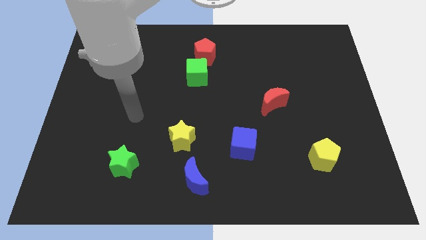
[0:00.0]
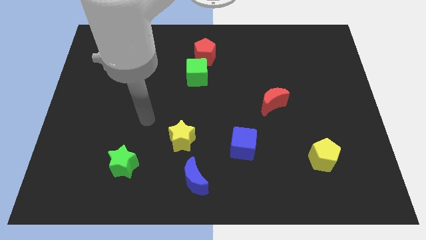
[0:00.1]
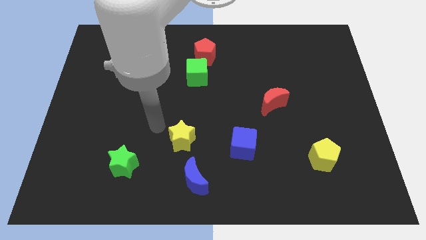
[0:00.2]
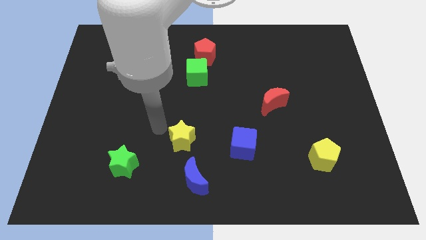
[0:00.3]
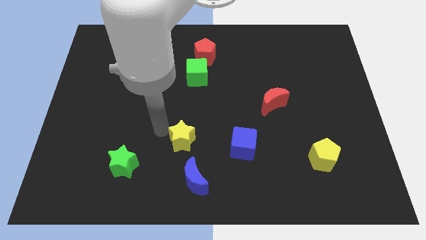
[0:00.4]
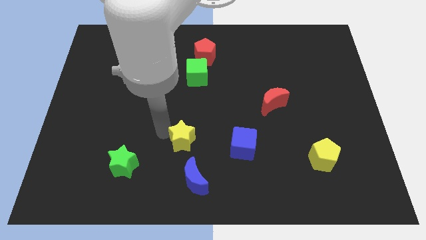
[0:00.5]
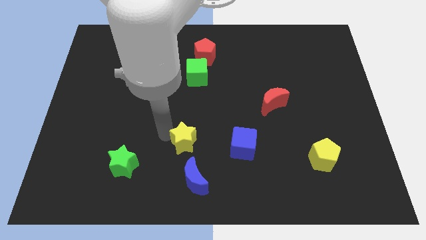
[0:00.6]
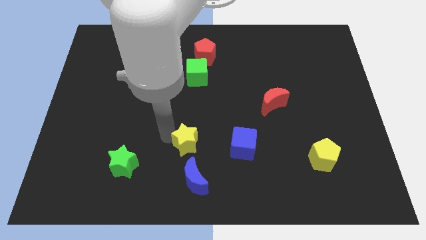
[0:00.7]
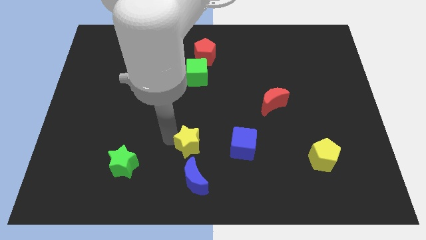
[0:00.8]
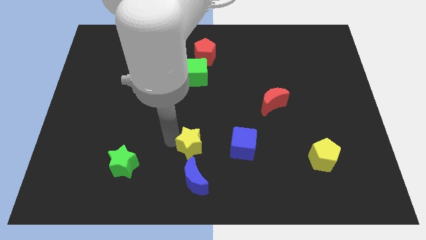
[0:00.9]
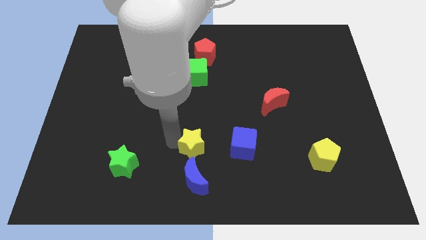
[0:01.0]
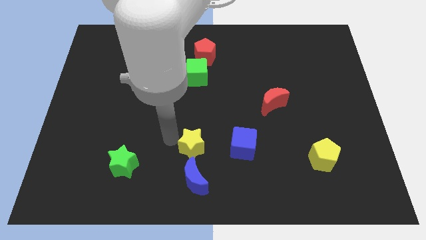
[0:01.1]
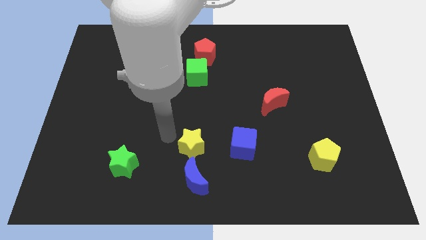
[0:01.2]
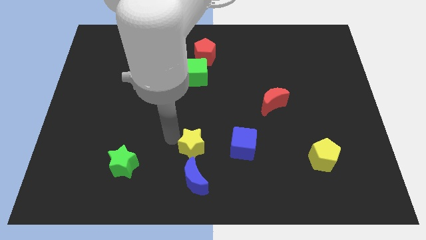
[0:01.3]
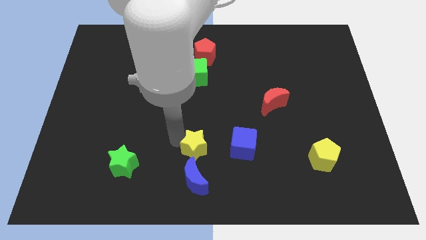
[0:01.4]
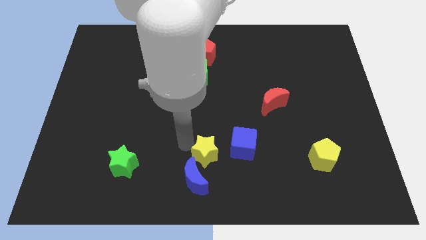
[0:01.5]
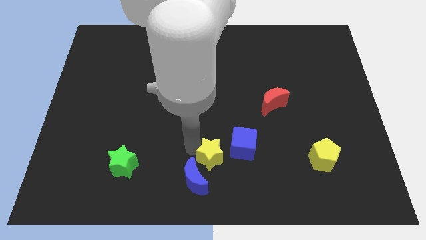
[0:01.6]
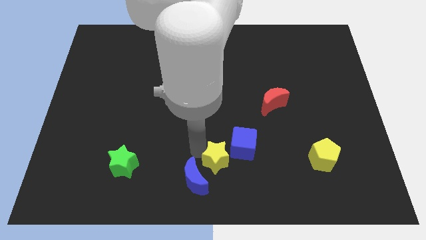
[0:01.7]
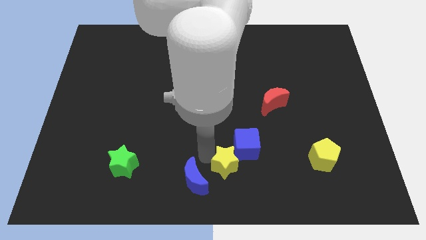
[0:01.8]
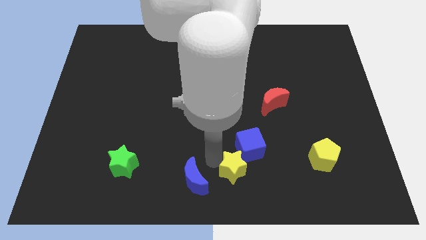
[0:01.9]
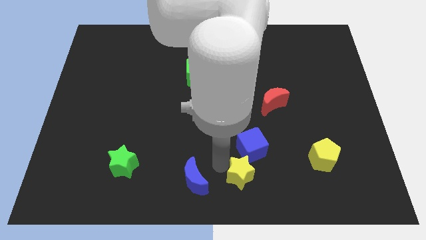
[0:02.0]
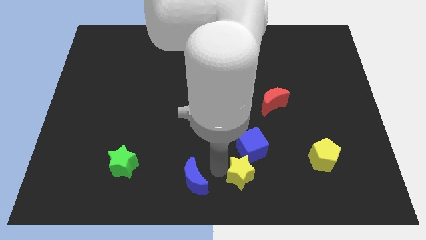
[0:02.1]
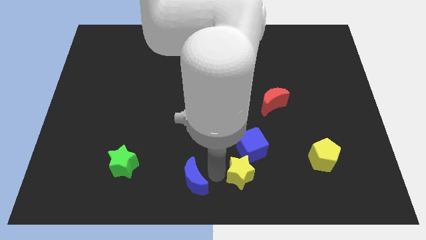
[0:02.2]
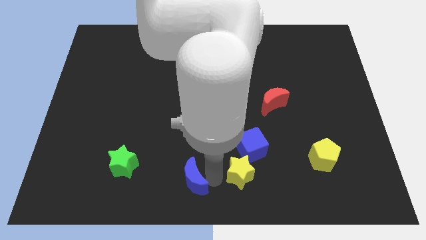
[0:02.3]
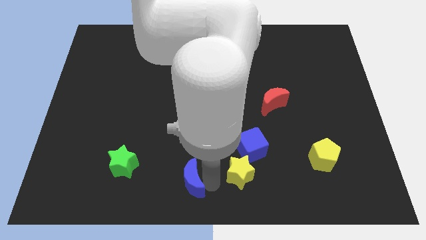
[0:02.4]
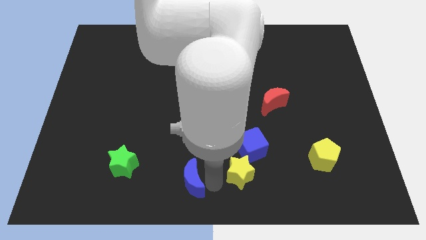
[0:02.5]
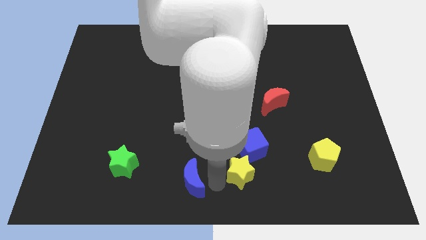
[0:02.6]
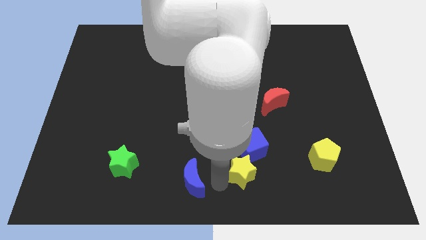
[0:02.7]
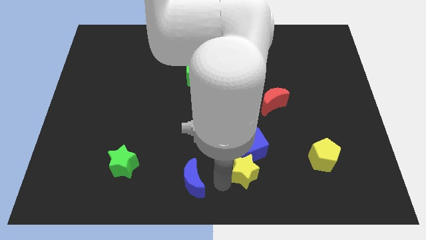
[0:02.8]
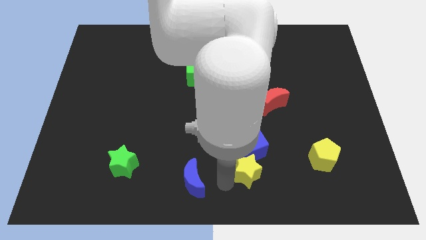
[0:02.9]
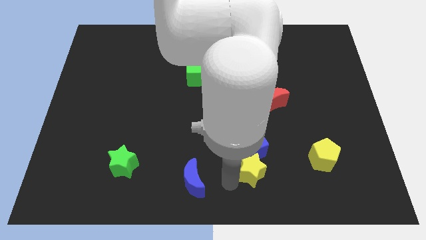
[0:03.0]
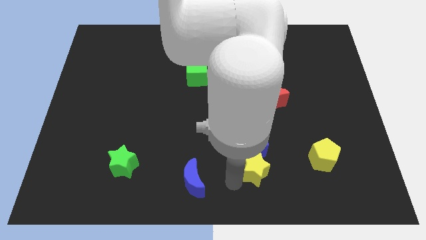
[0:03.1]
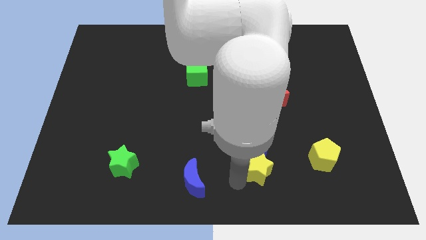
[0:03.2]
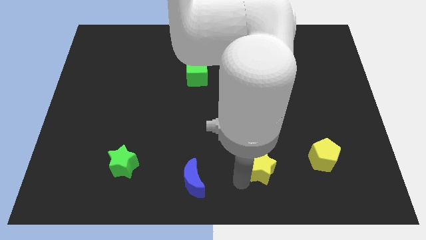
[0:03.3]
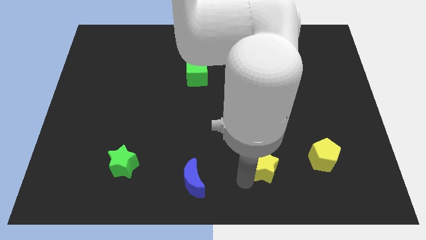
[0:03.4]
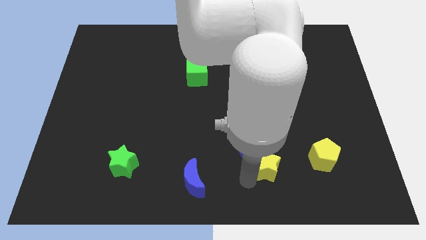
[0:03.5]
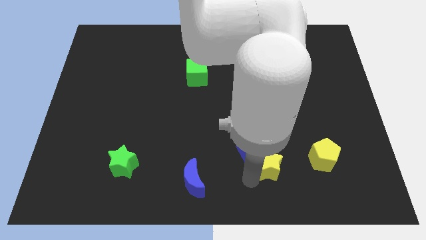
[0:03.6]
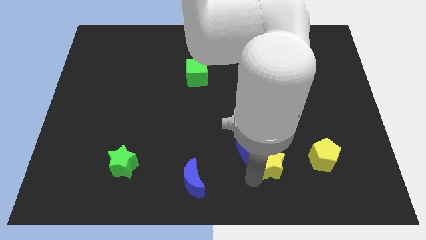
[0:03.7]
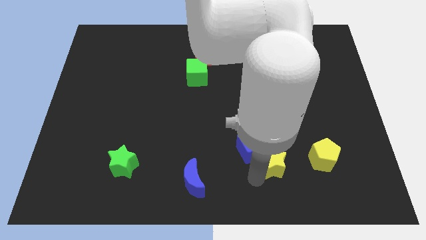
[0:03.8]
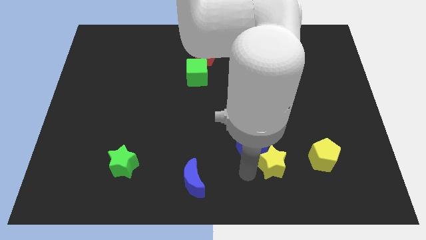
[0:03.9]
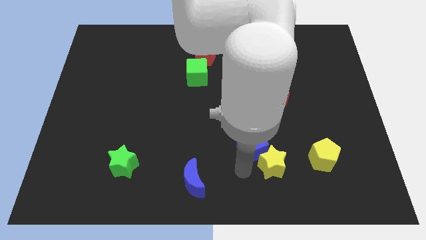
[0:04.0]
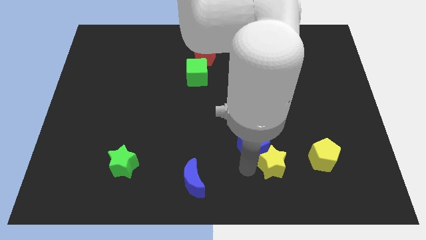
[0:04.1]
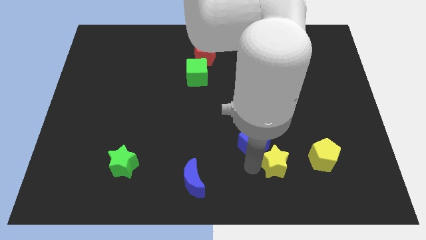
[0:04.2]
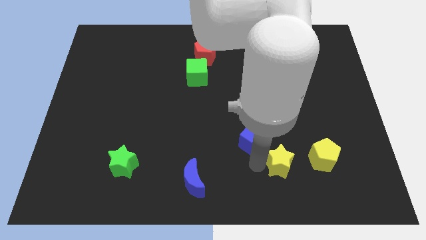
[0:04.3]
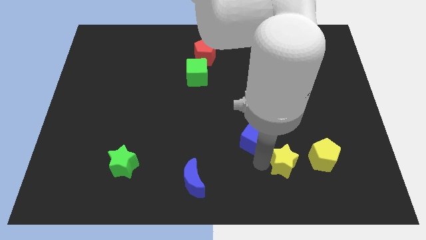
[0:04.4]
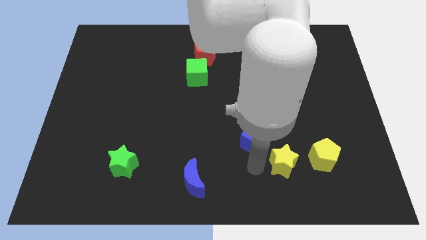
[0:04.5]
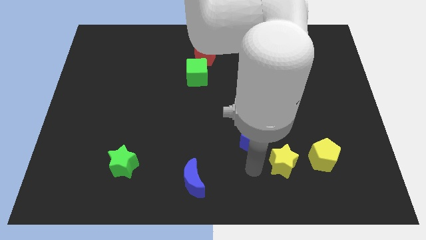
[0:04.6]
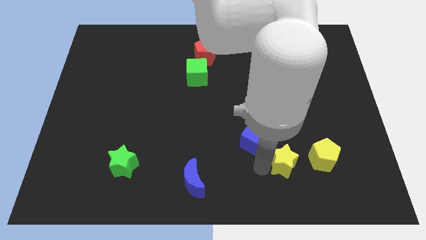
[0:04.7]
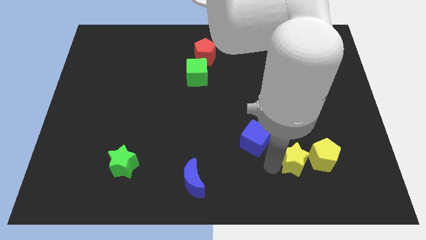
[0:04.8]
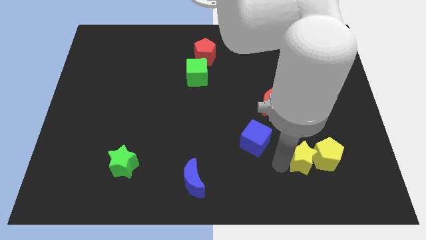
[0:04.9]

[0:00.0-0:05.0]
push the yellow star next to the yellow pentagon

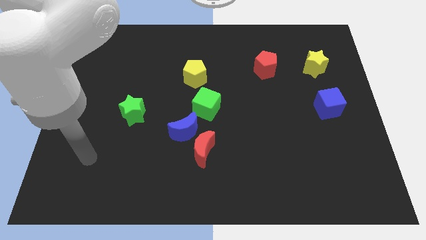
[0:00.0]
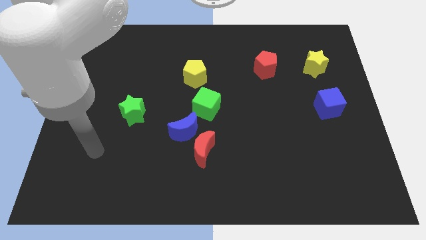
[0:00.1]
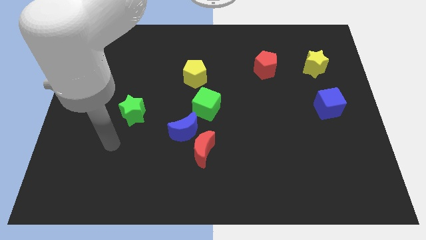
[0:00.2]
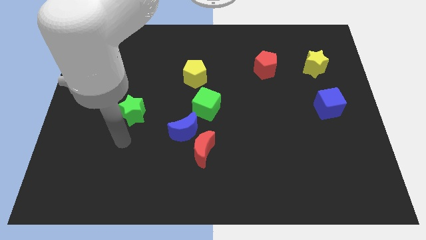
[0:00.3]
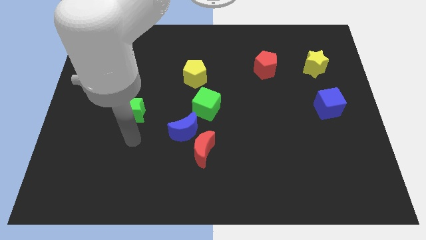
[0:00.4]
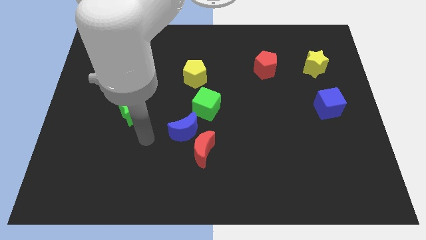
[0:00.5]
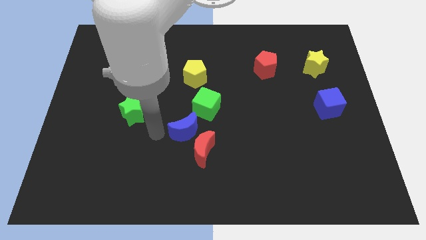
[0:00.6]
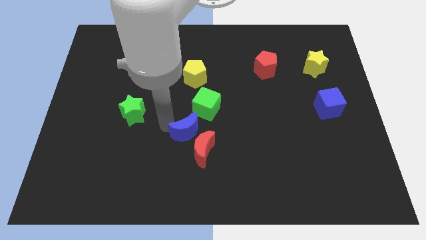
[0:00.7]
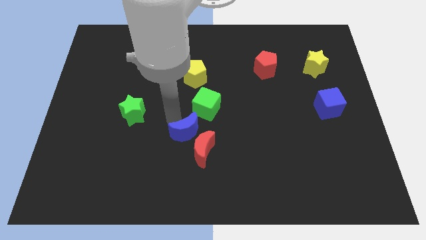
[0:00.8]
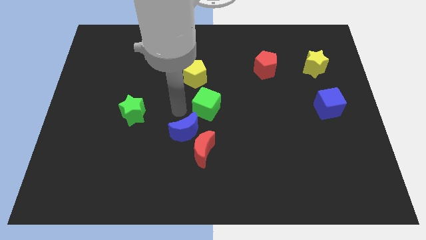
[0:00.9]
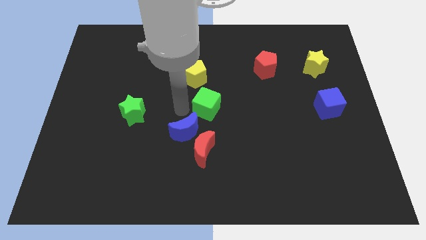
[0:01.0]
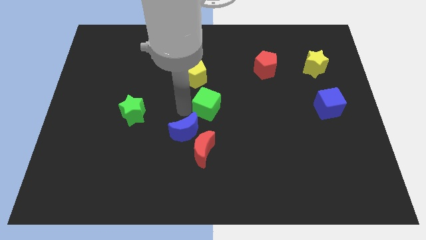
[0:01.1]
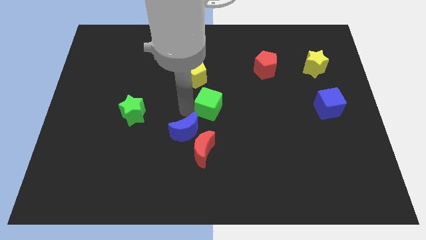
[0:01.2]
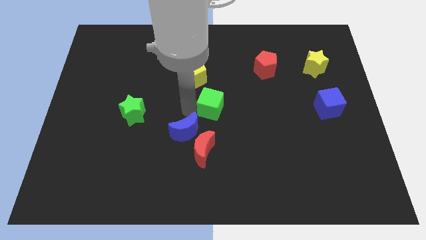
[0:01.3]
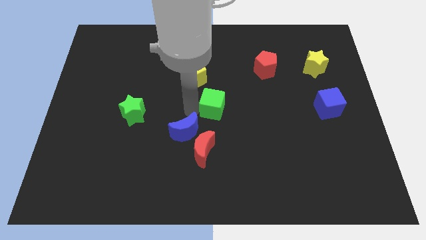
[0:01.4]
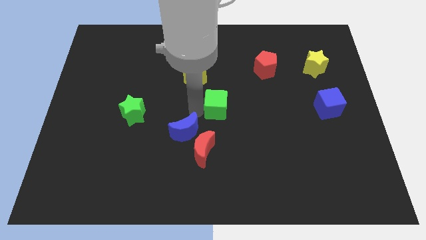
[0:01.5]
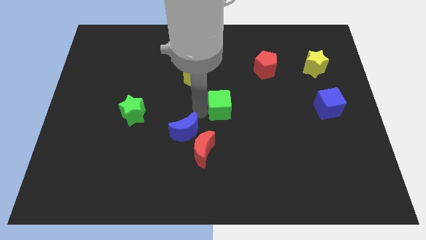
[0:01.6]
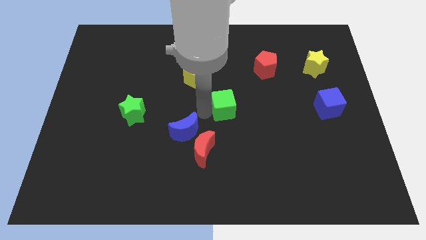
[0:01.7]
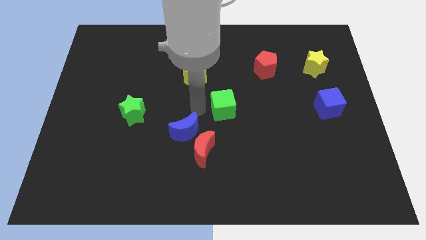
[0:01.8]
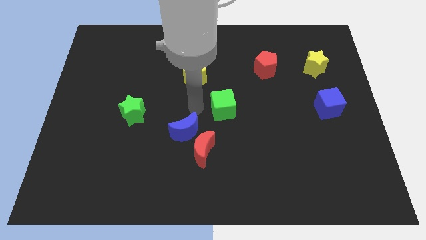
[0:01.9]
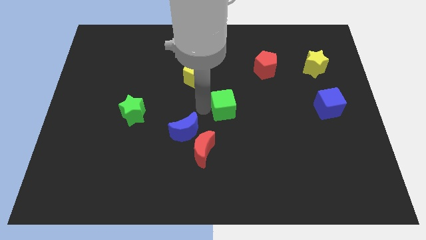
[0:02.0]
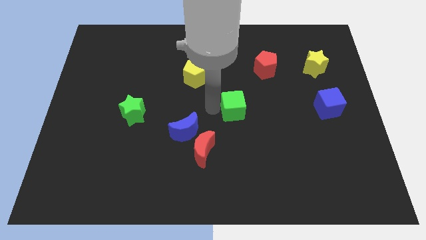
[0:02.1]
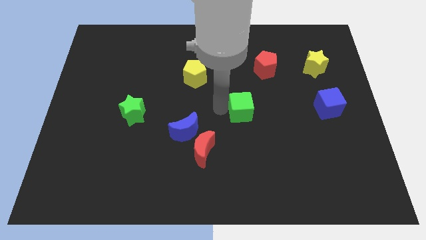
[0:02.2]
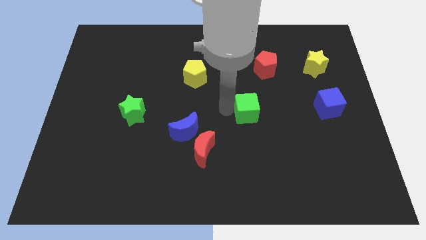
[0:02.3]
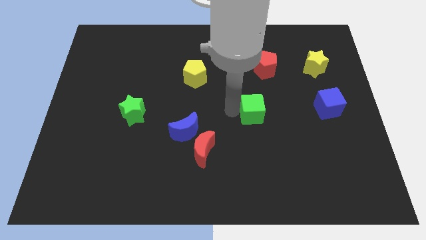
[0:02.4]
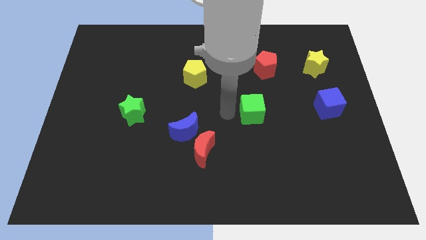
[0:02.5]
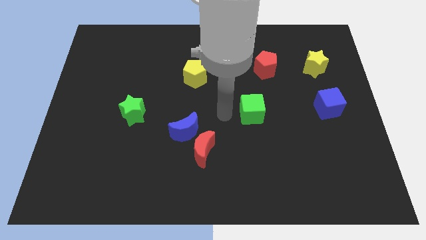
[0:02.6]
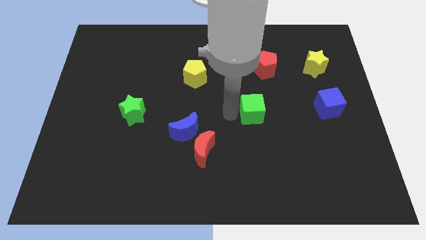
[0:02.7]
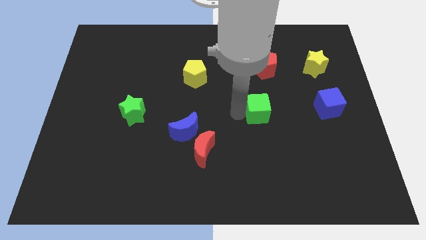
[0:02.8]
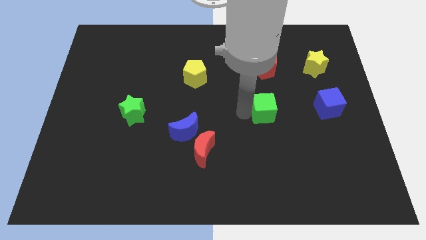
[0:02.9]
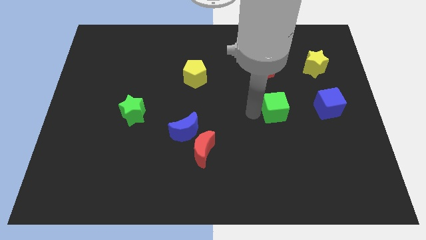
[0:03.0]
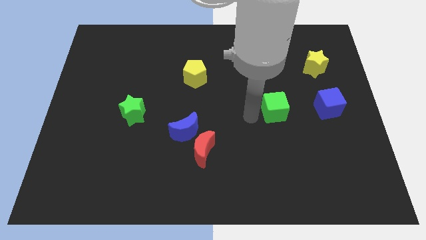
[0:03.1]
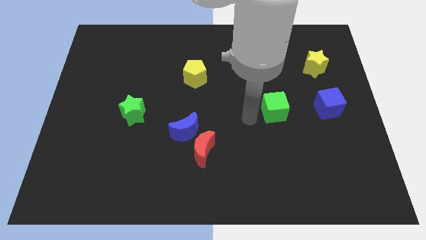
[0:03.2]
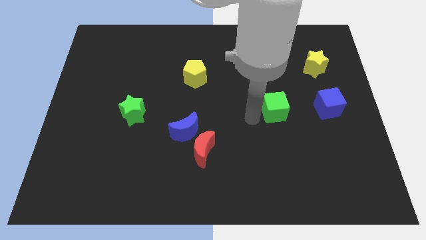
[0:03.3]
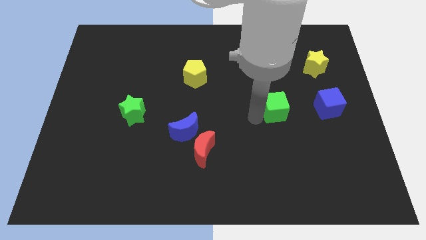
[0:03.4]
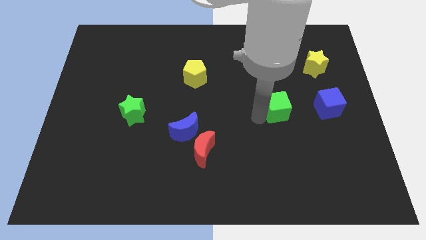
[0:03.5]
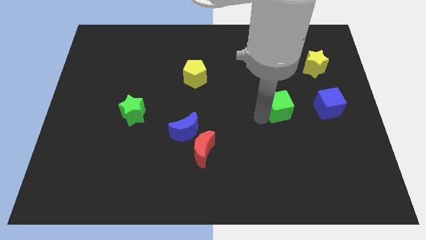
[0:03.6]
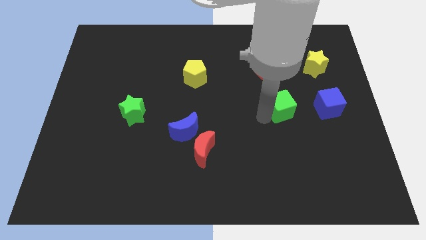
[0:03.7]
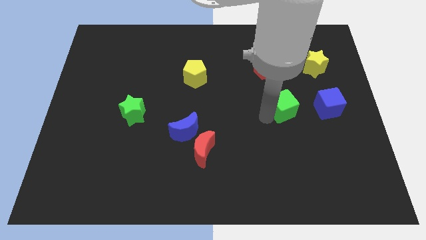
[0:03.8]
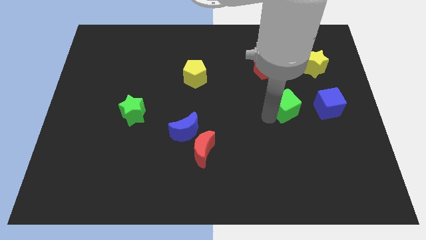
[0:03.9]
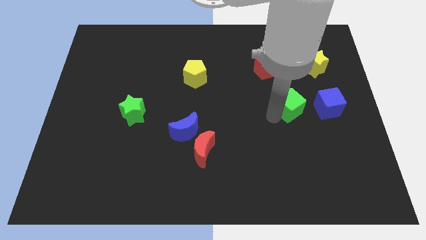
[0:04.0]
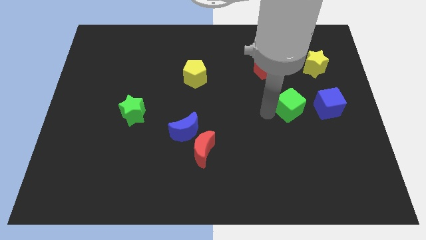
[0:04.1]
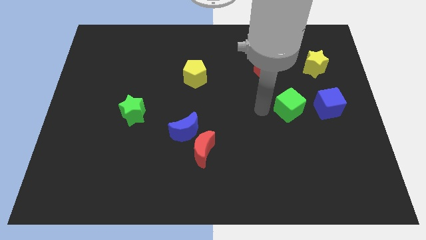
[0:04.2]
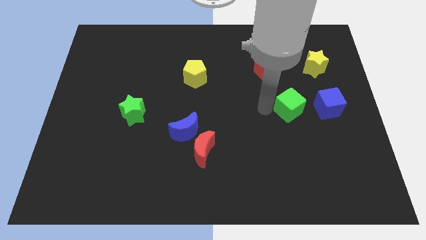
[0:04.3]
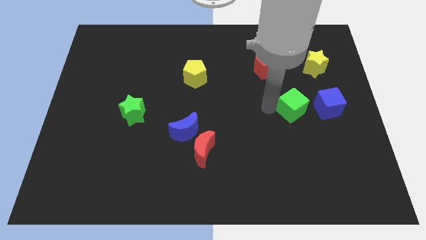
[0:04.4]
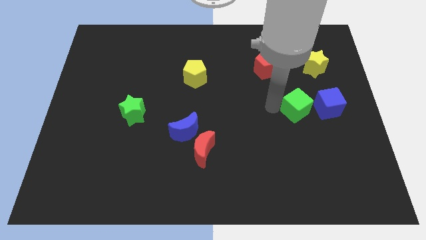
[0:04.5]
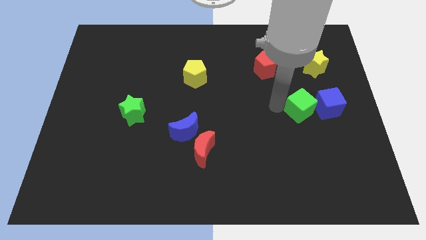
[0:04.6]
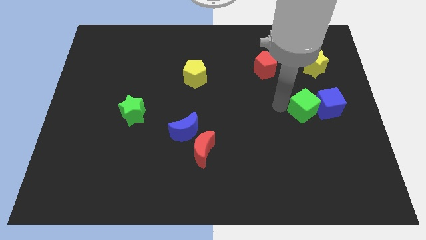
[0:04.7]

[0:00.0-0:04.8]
push the green cube next to the blue cube
